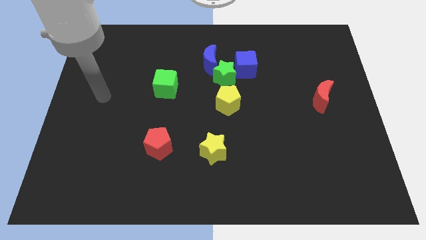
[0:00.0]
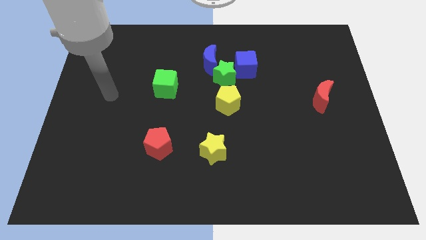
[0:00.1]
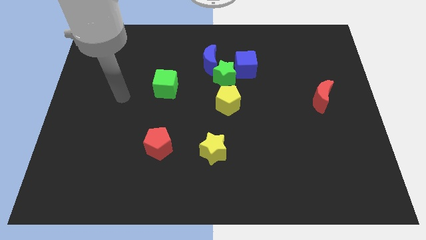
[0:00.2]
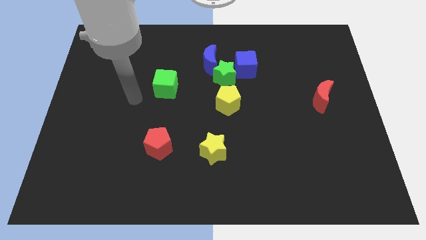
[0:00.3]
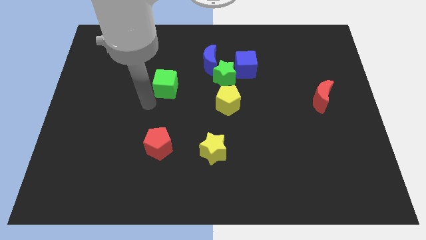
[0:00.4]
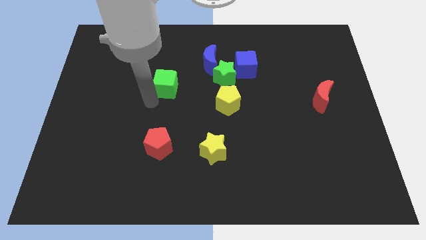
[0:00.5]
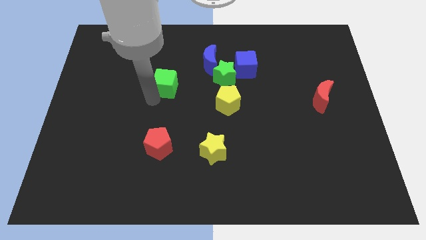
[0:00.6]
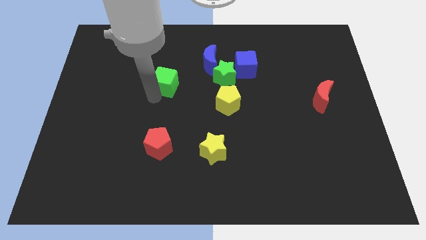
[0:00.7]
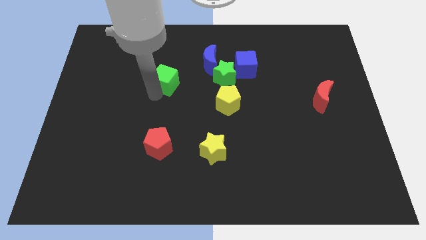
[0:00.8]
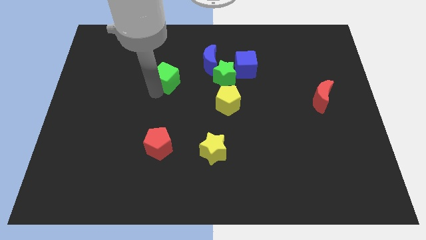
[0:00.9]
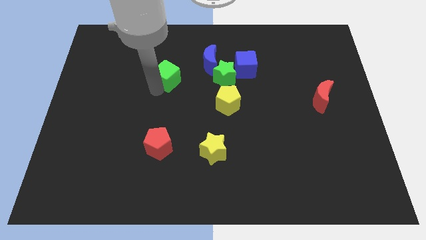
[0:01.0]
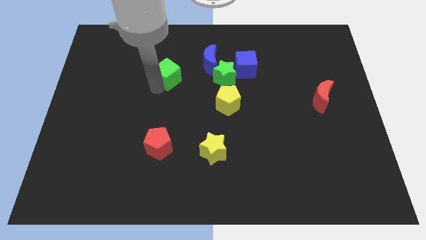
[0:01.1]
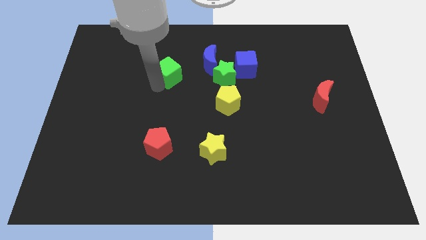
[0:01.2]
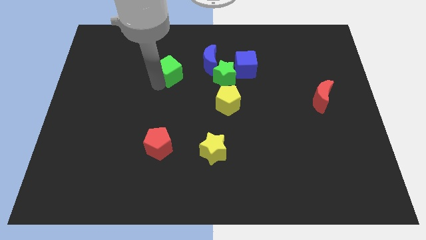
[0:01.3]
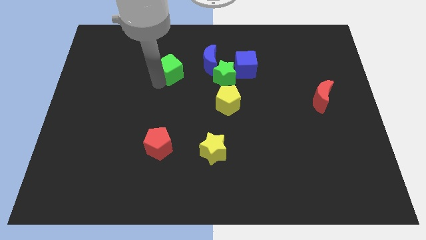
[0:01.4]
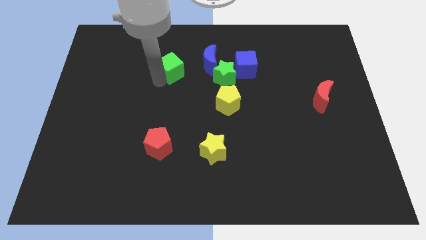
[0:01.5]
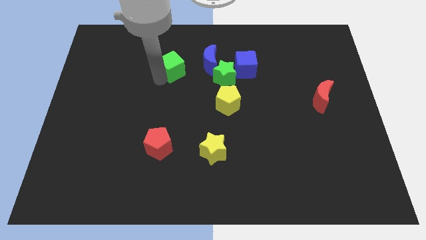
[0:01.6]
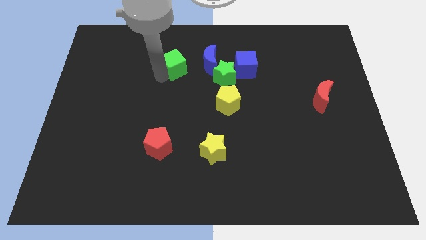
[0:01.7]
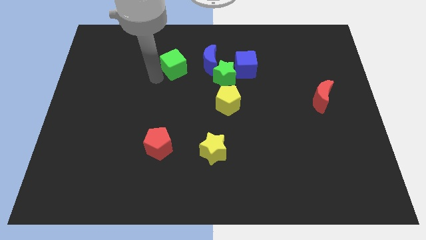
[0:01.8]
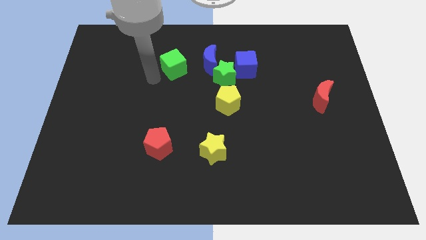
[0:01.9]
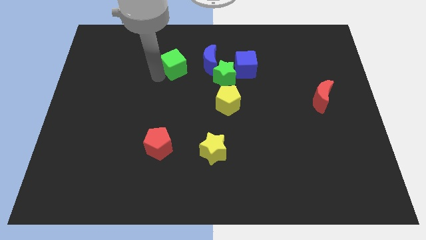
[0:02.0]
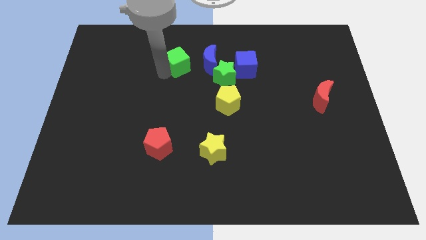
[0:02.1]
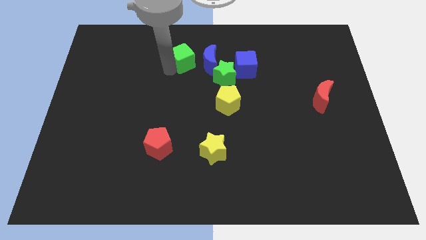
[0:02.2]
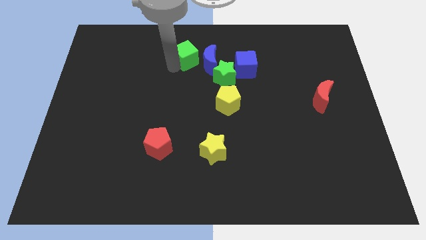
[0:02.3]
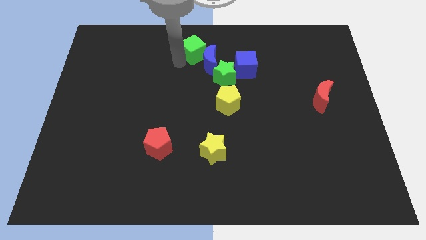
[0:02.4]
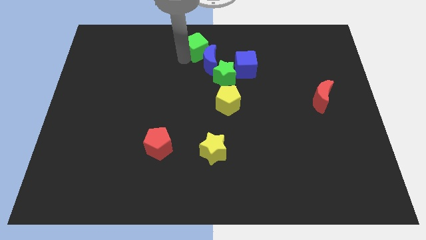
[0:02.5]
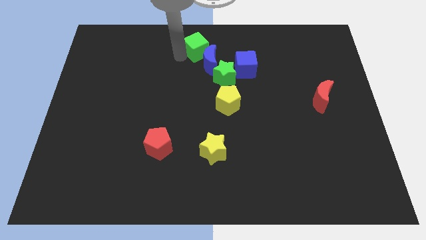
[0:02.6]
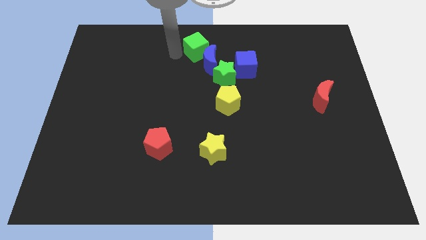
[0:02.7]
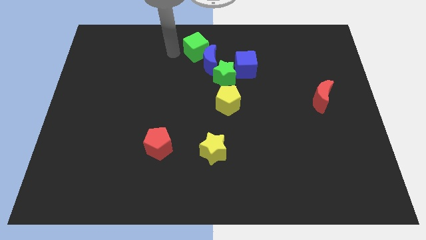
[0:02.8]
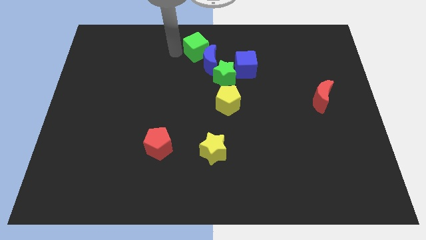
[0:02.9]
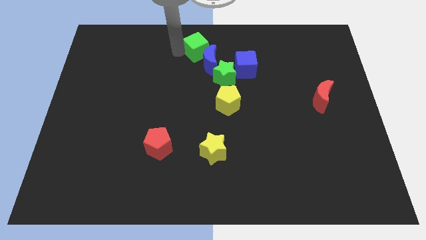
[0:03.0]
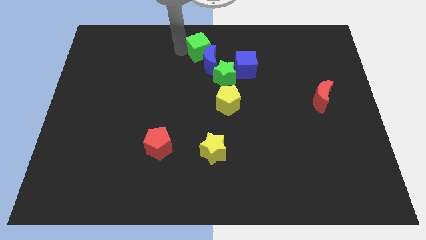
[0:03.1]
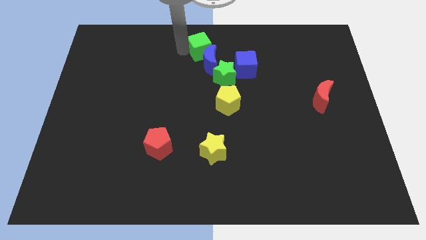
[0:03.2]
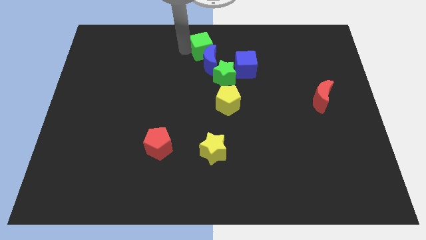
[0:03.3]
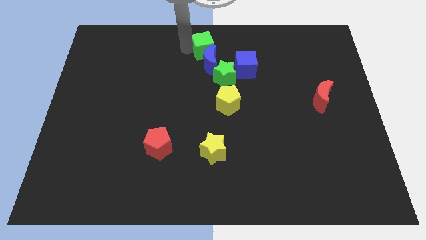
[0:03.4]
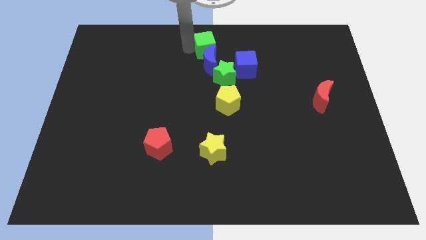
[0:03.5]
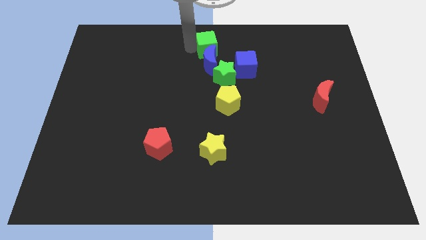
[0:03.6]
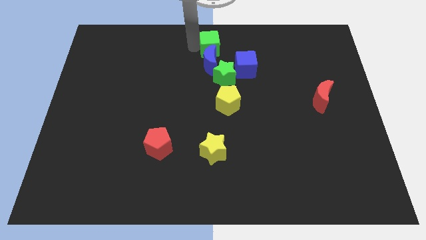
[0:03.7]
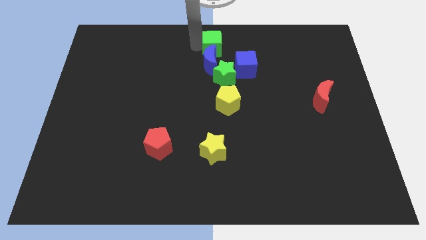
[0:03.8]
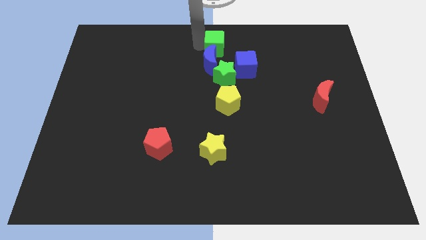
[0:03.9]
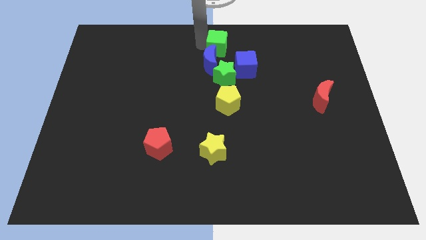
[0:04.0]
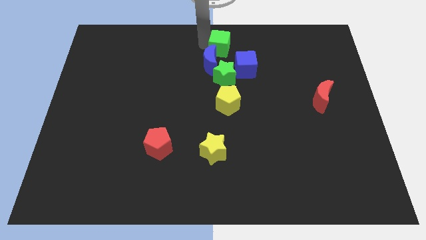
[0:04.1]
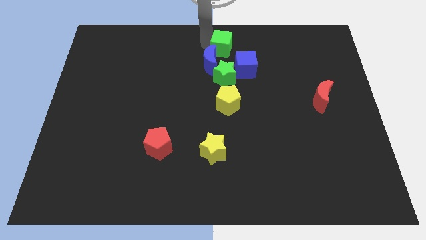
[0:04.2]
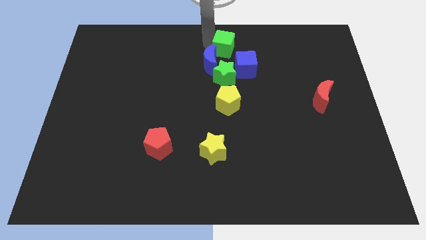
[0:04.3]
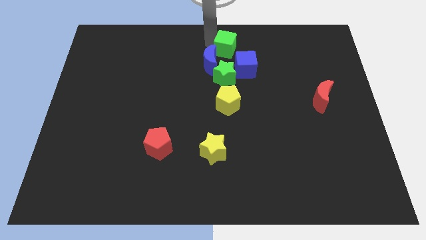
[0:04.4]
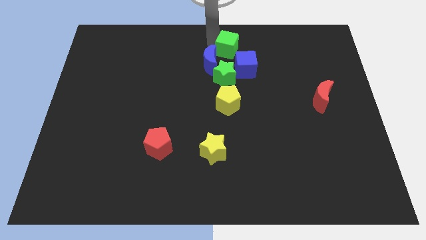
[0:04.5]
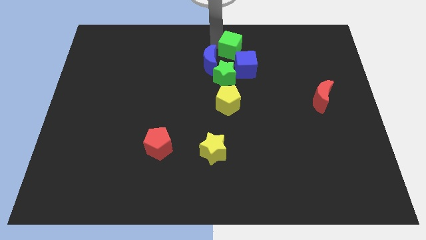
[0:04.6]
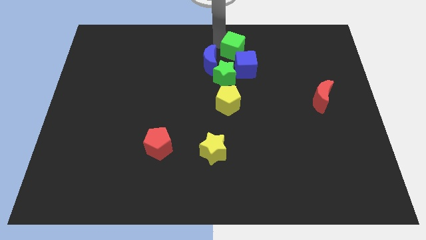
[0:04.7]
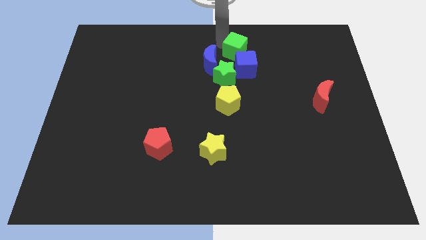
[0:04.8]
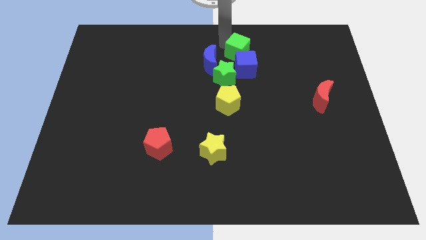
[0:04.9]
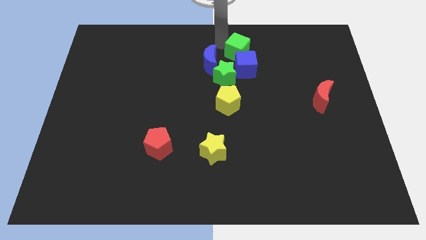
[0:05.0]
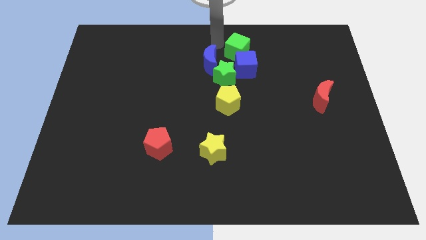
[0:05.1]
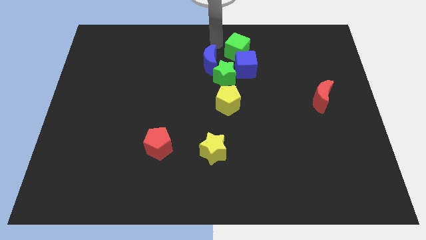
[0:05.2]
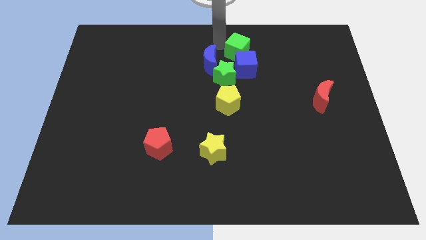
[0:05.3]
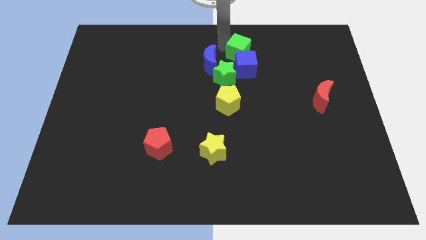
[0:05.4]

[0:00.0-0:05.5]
slightly slide the green cube to the right

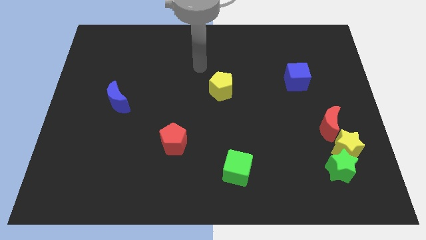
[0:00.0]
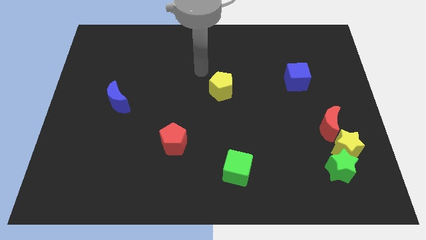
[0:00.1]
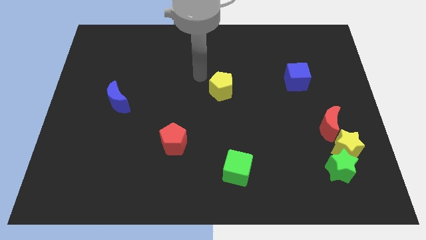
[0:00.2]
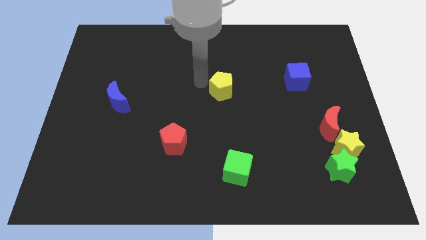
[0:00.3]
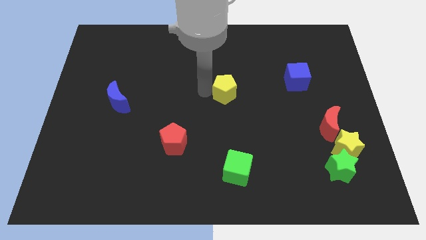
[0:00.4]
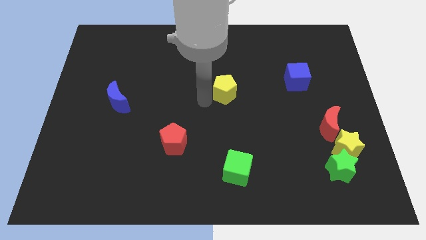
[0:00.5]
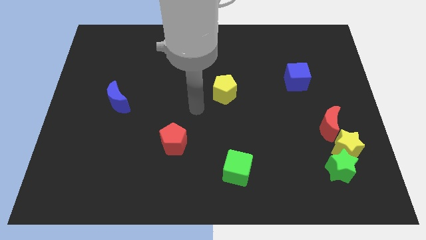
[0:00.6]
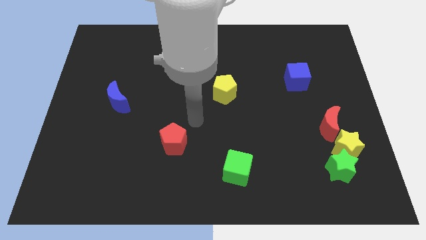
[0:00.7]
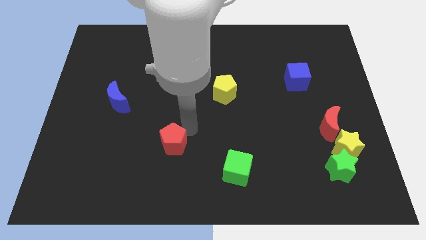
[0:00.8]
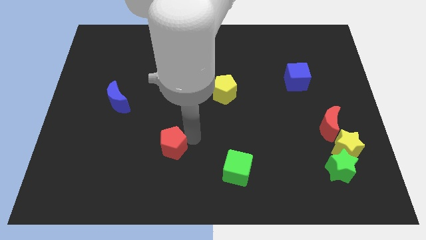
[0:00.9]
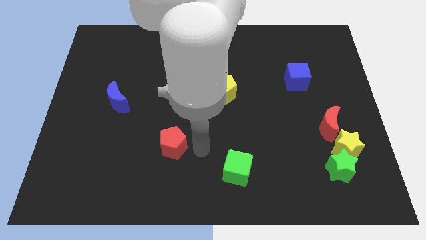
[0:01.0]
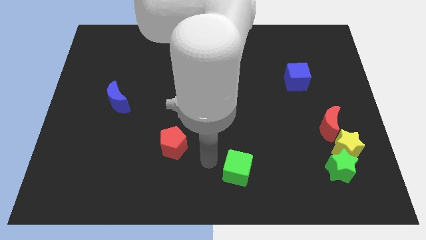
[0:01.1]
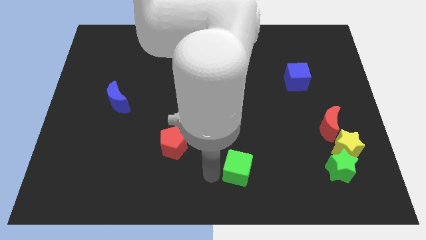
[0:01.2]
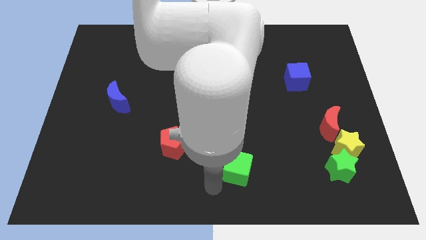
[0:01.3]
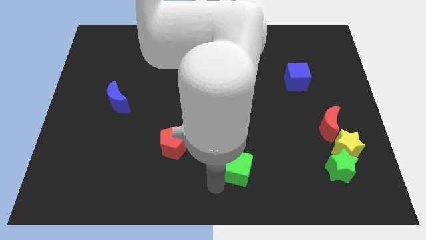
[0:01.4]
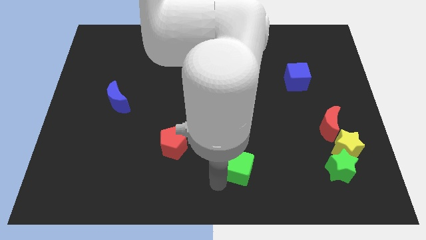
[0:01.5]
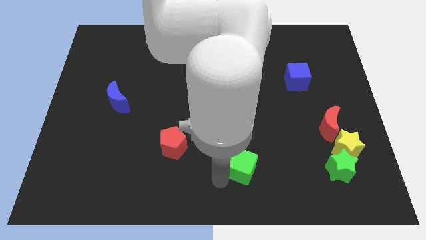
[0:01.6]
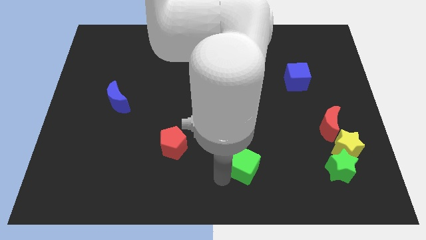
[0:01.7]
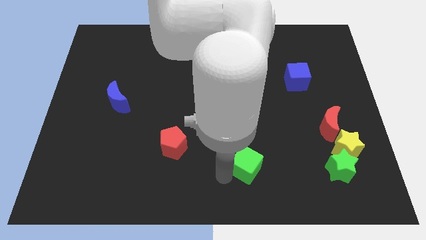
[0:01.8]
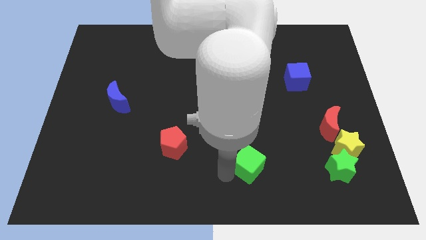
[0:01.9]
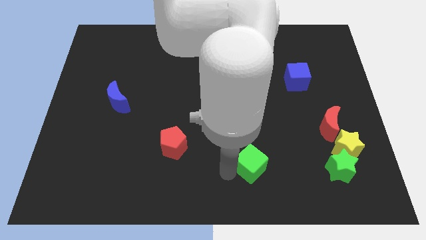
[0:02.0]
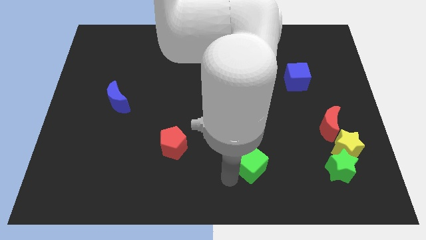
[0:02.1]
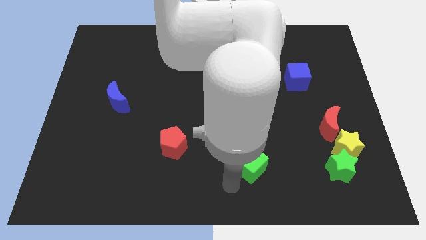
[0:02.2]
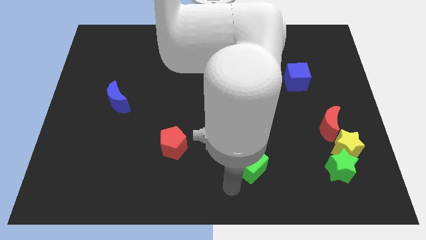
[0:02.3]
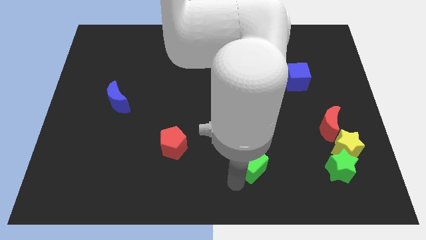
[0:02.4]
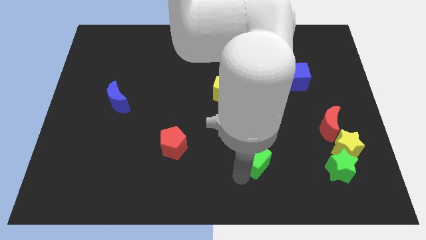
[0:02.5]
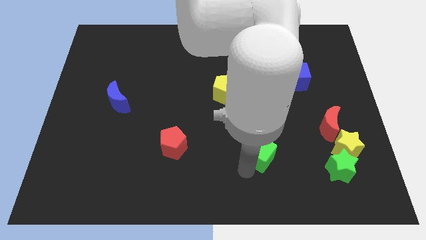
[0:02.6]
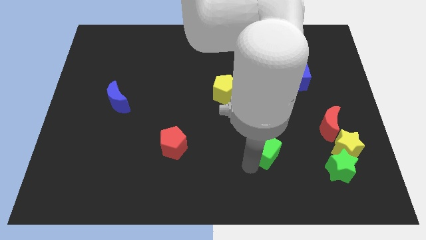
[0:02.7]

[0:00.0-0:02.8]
slide the green cube a bit upwards and then right

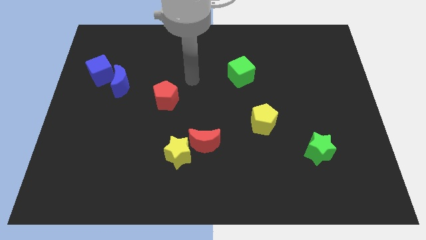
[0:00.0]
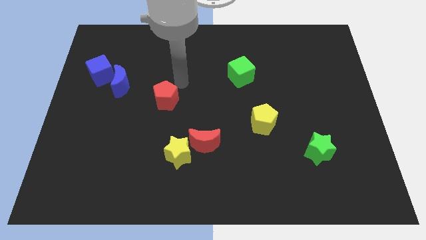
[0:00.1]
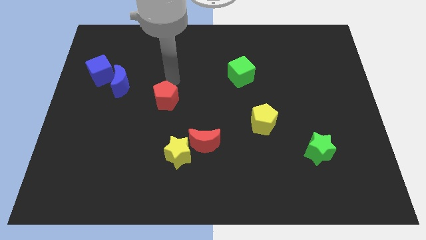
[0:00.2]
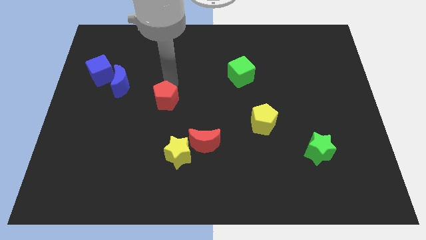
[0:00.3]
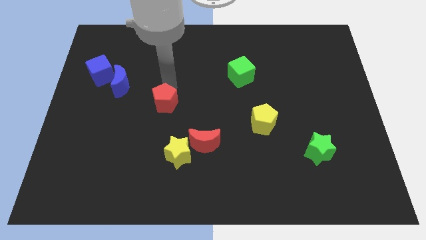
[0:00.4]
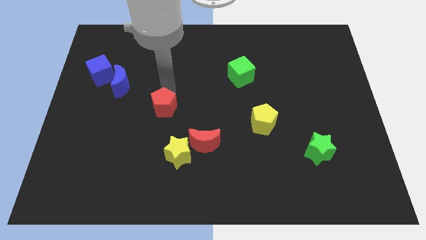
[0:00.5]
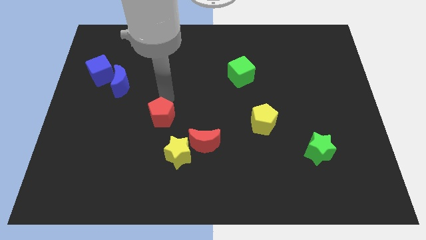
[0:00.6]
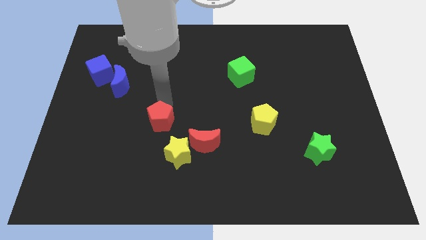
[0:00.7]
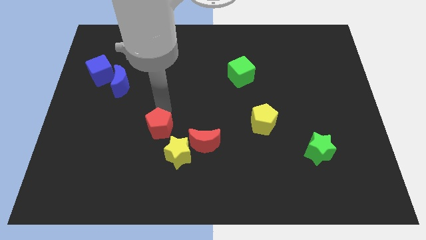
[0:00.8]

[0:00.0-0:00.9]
slightly push the red pentagon downwards
